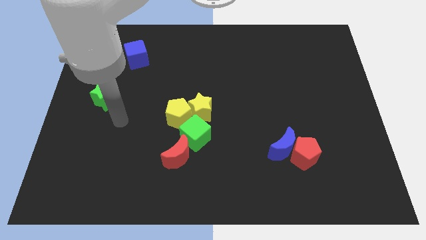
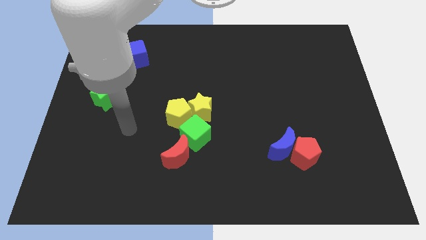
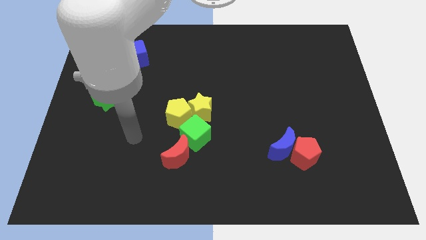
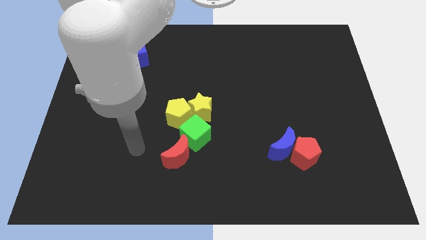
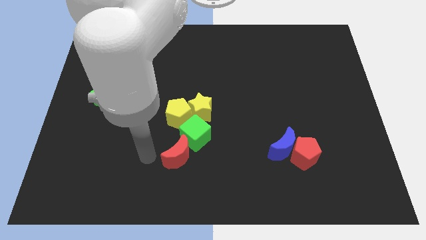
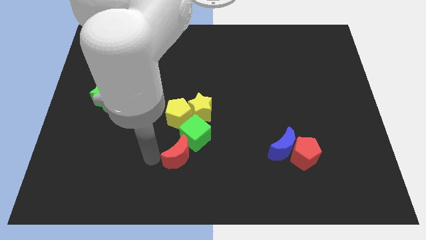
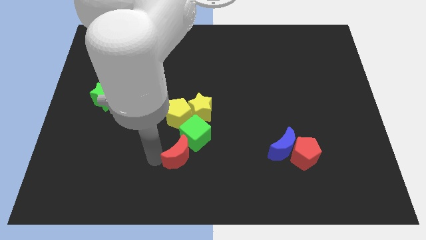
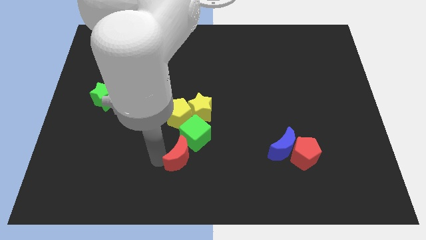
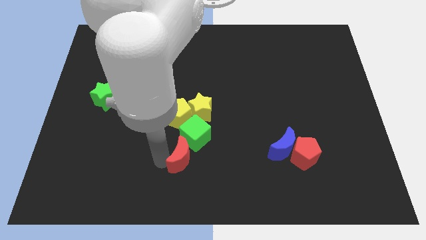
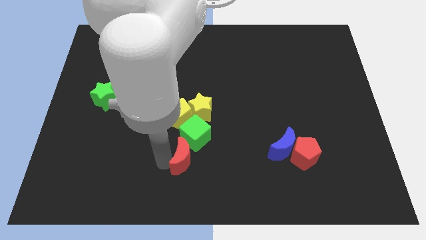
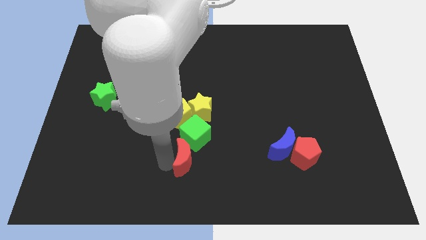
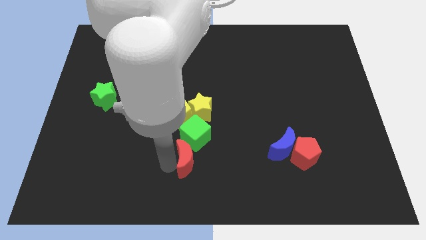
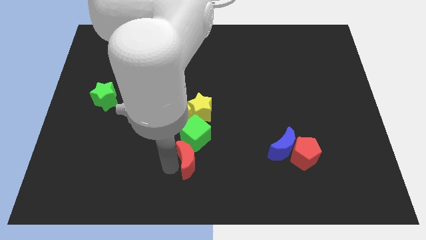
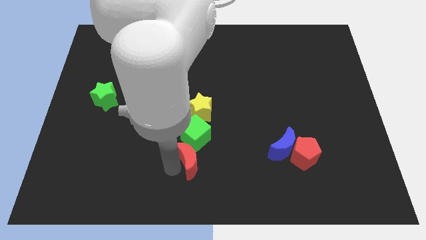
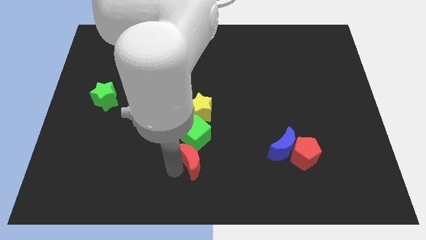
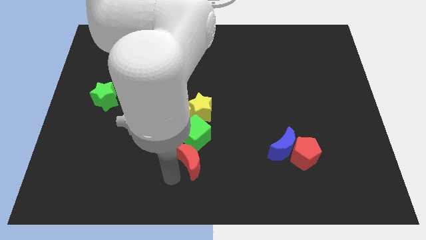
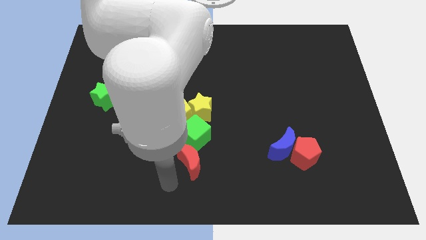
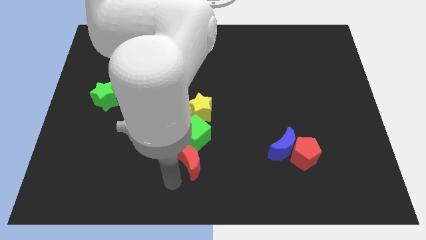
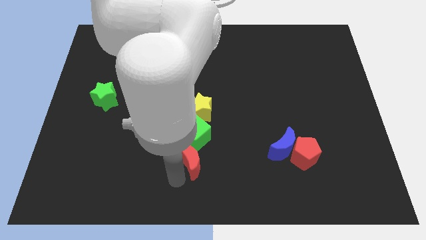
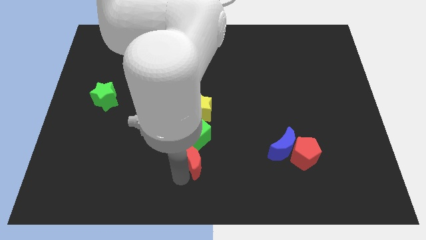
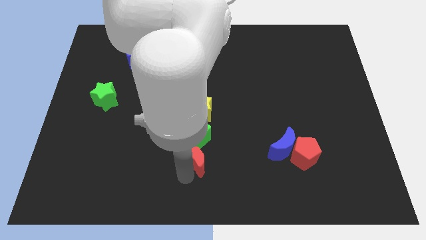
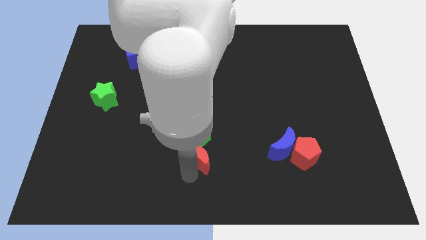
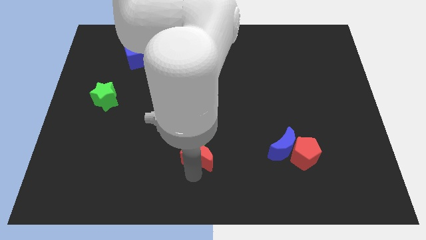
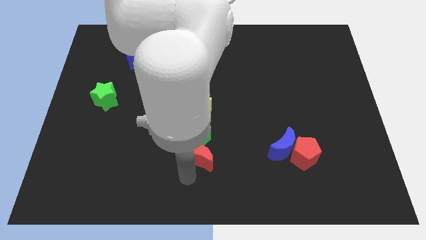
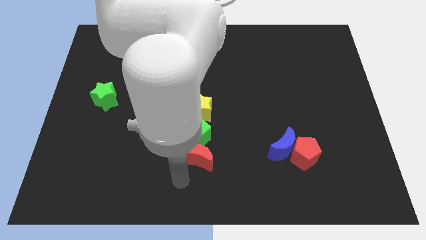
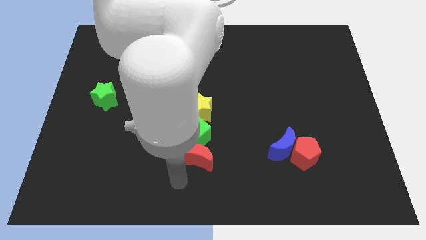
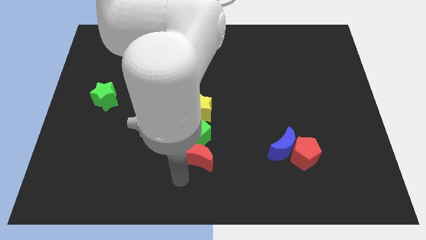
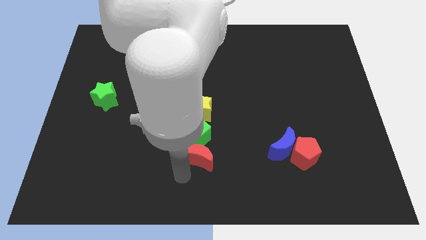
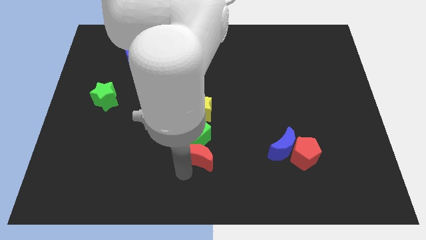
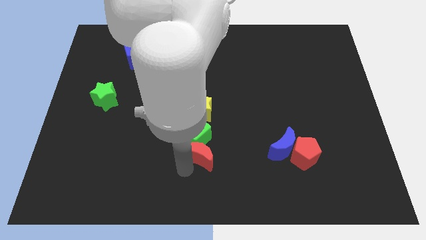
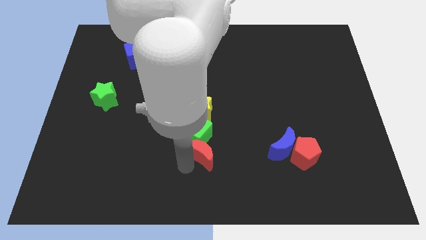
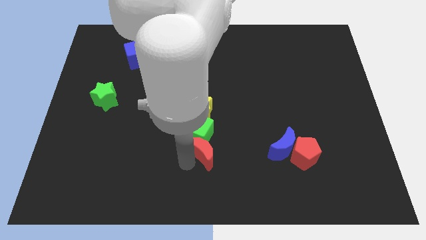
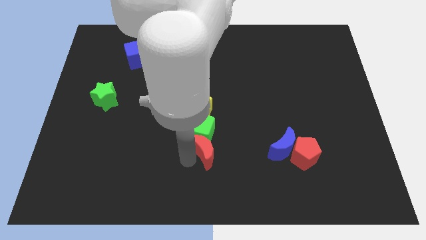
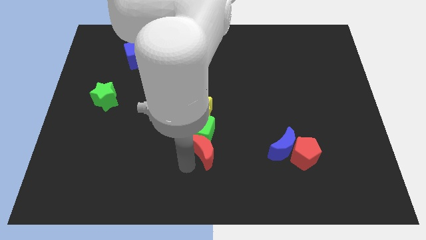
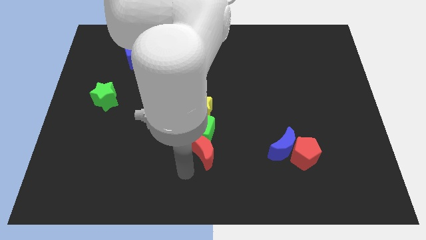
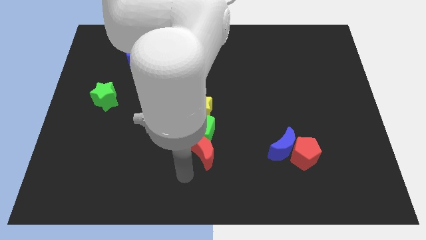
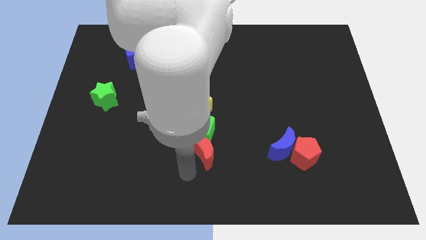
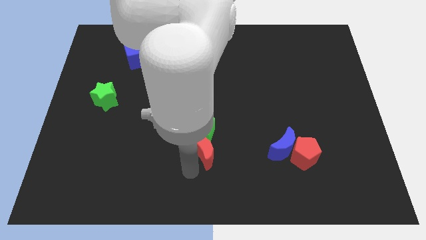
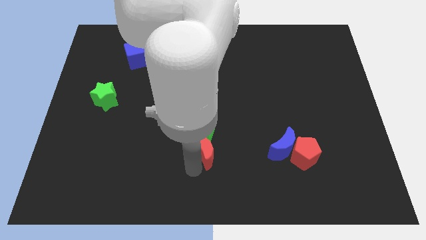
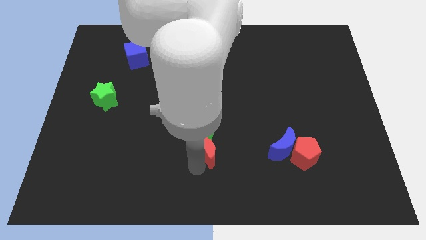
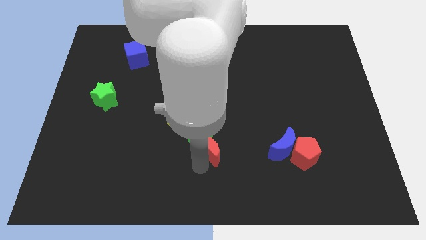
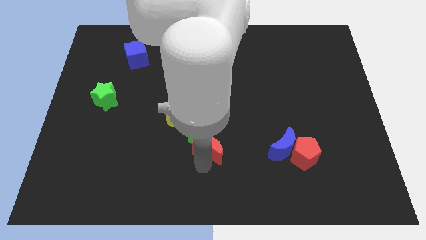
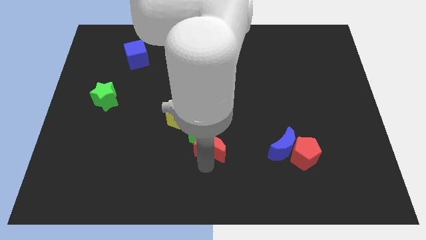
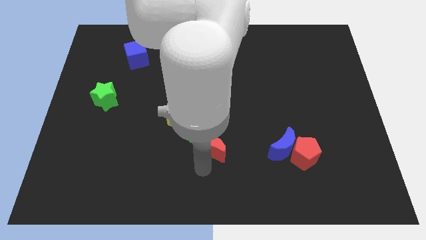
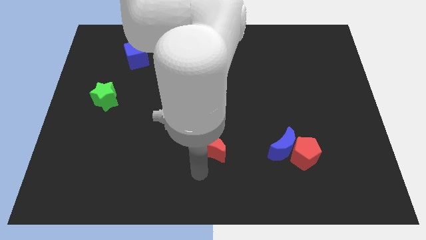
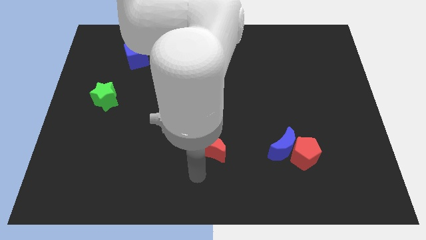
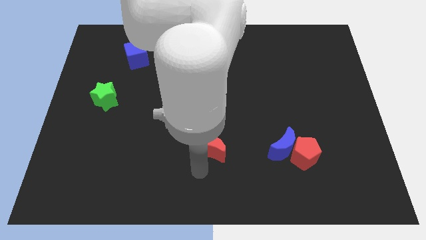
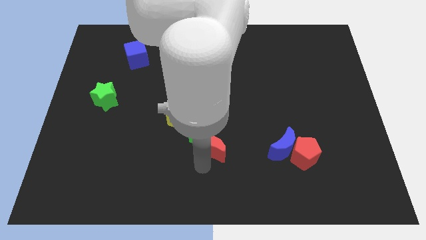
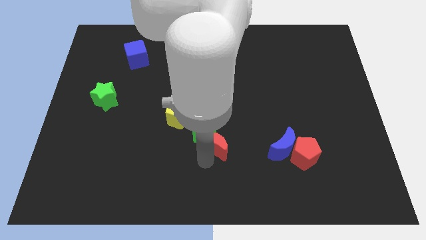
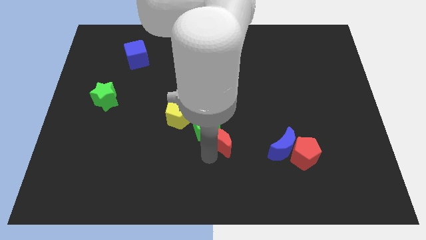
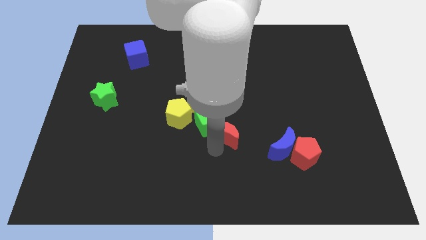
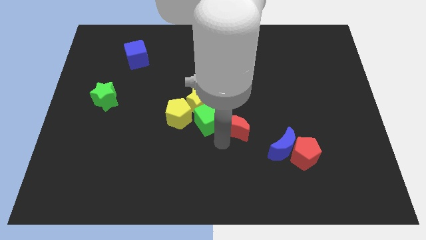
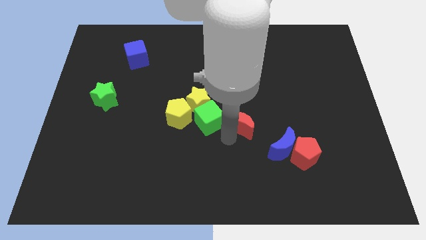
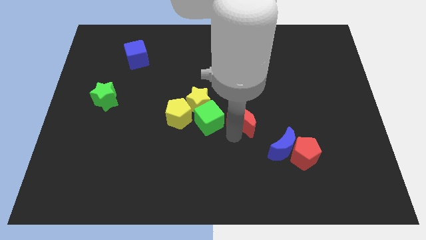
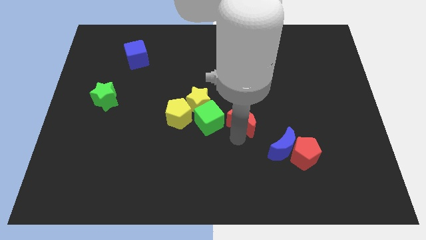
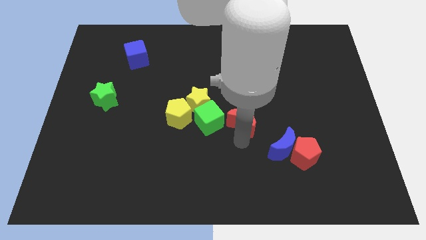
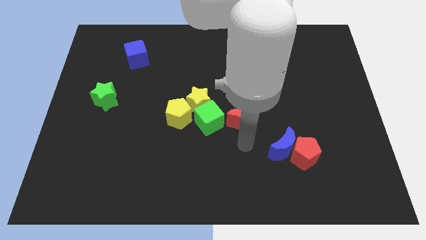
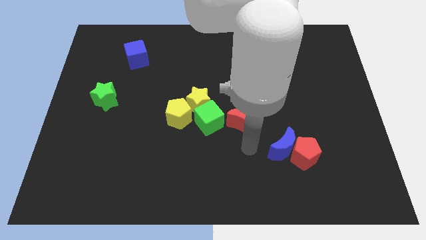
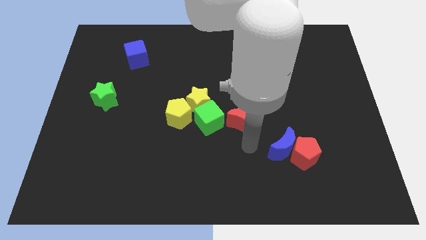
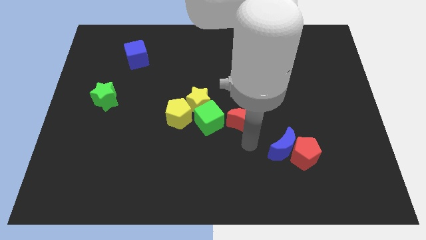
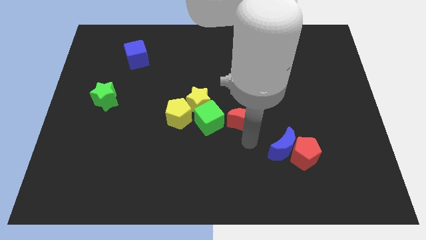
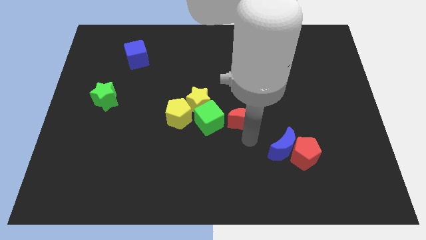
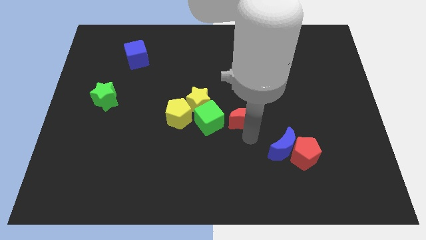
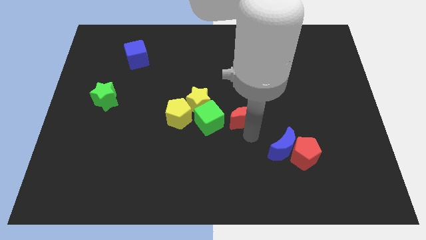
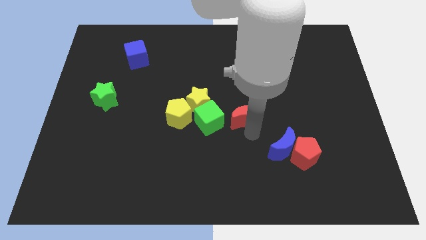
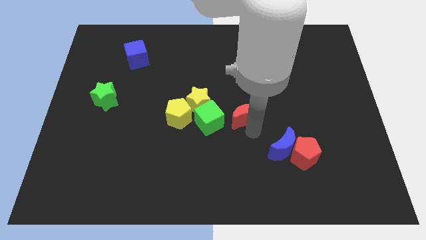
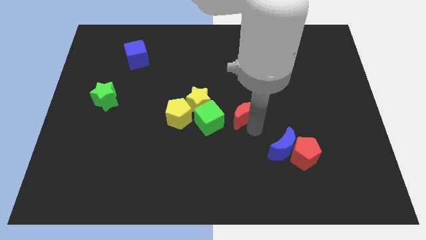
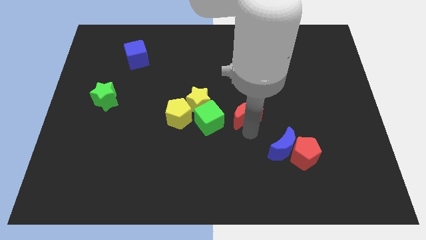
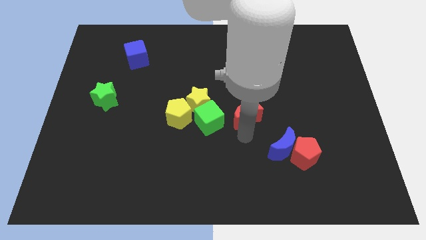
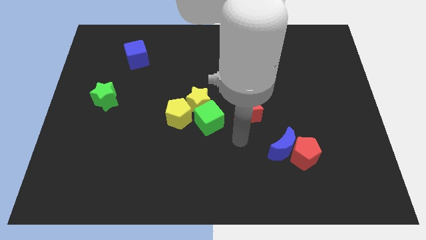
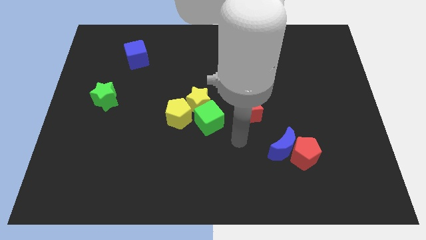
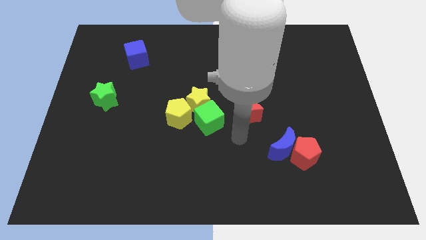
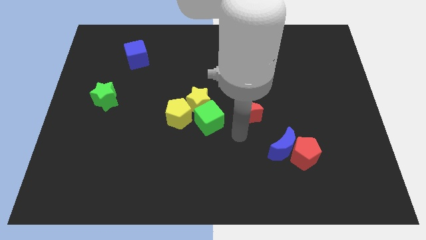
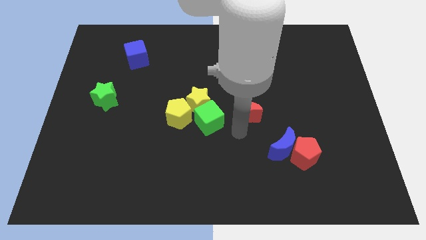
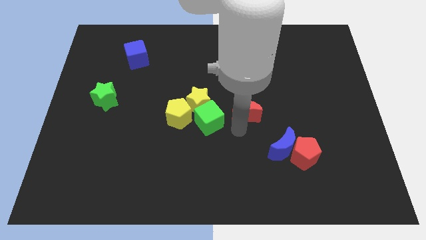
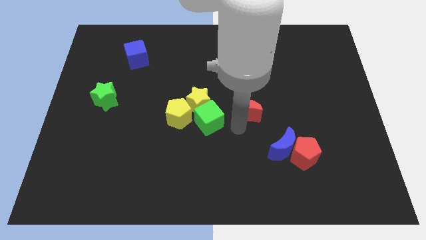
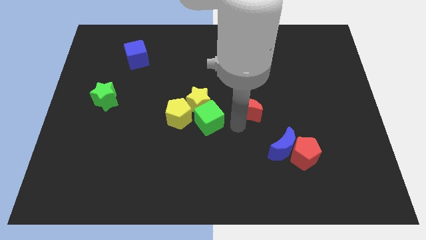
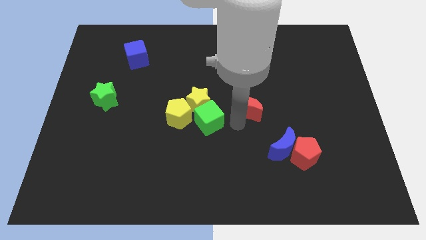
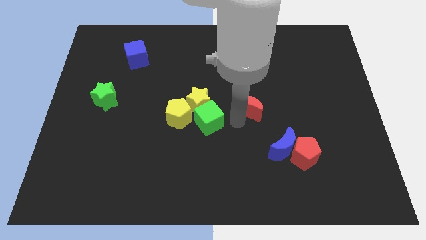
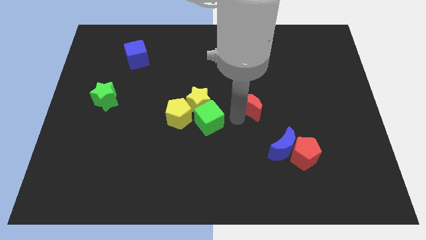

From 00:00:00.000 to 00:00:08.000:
move the red moon diagonally up and to the right

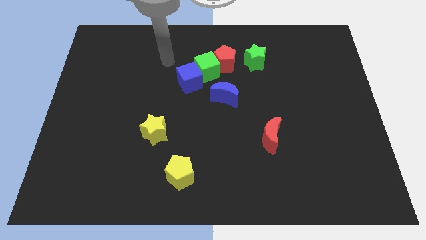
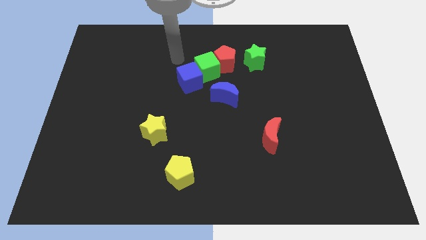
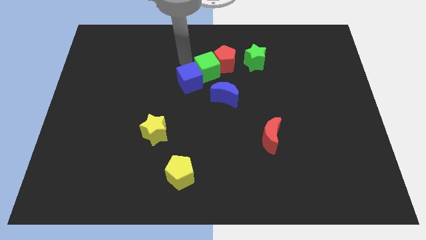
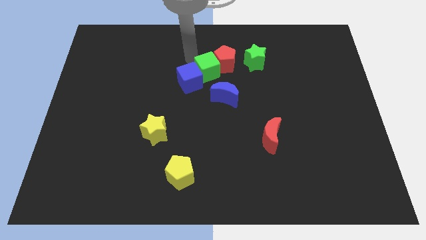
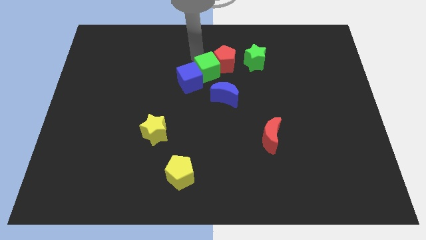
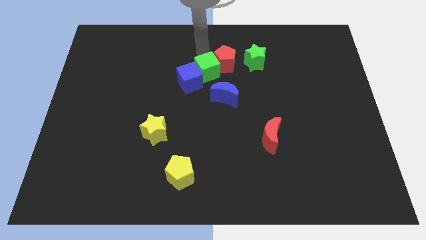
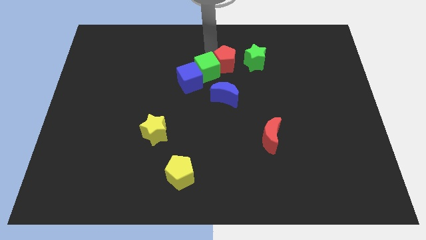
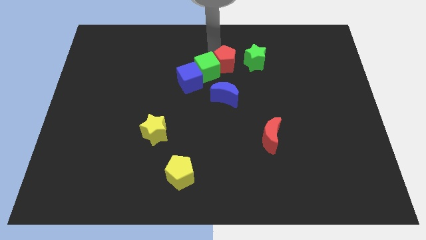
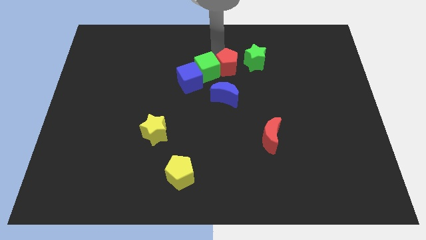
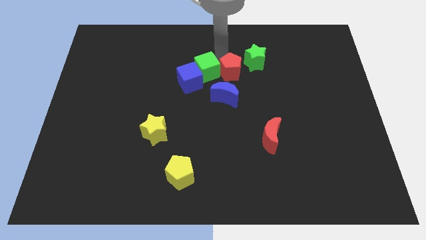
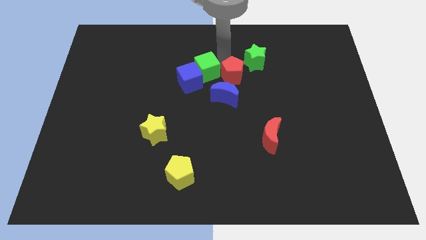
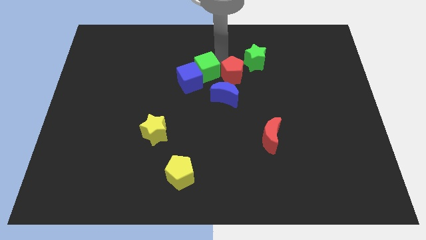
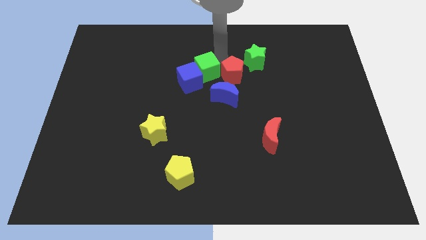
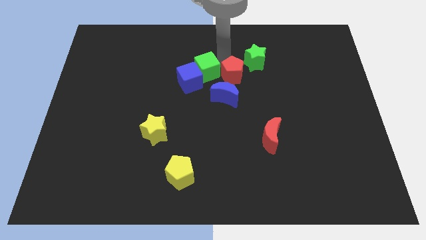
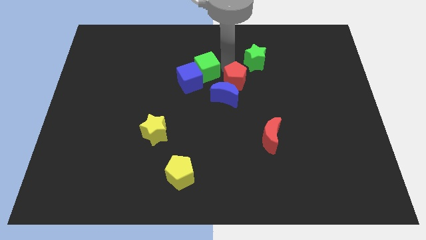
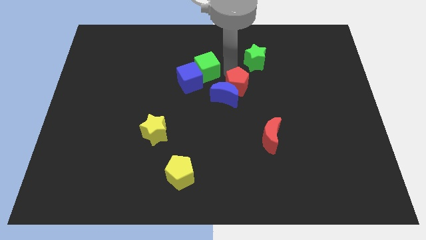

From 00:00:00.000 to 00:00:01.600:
slide the red pentagon down slightly
